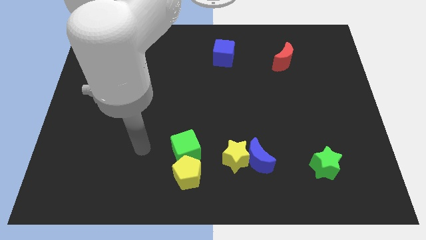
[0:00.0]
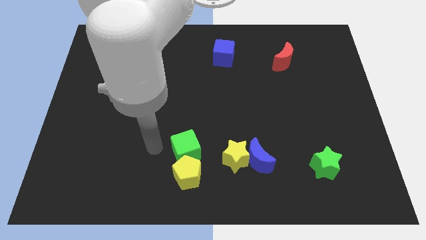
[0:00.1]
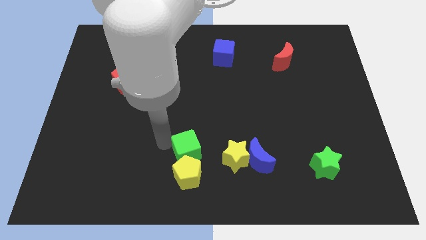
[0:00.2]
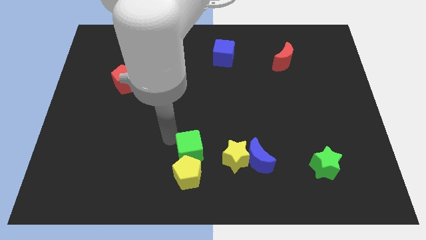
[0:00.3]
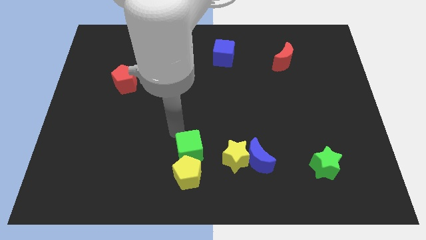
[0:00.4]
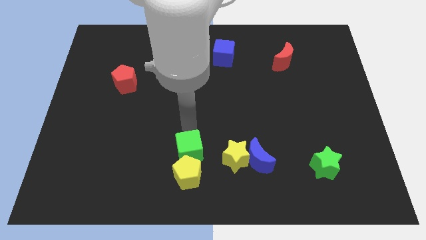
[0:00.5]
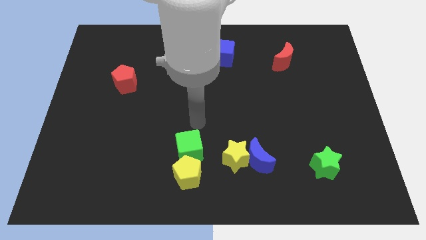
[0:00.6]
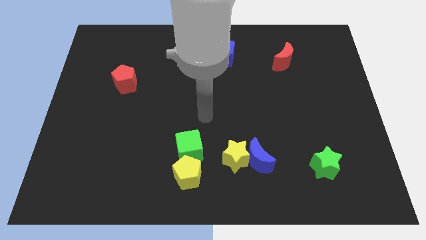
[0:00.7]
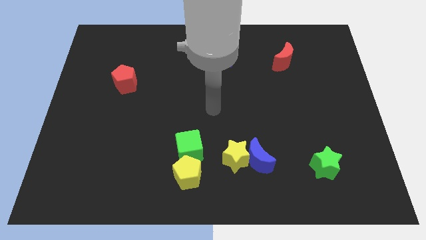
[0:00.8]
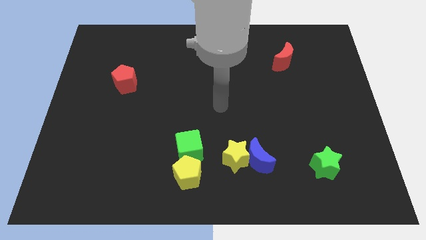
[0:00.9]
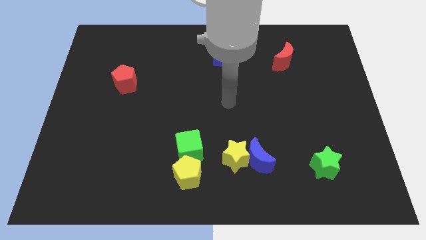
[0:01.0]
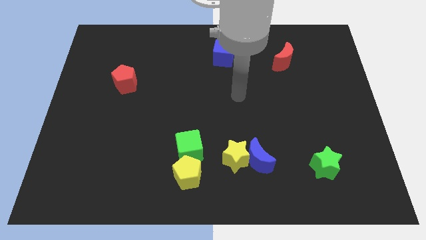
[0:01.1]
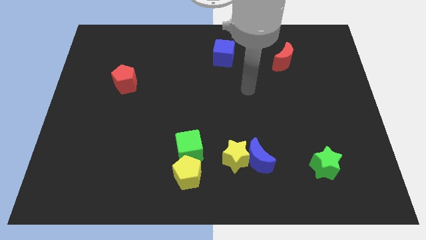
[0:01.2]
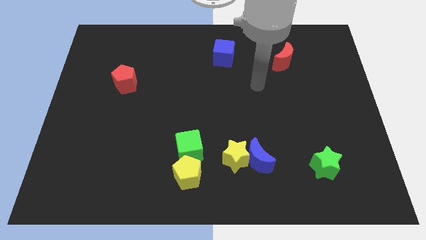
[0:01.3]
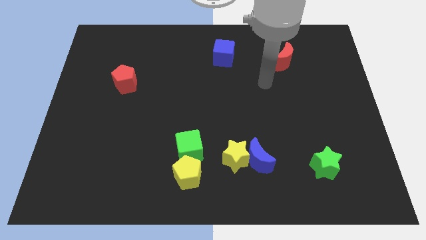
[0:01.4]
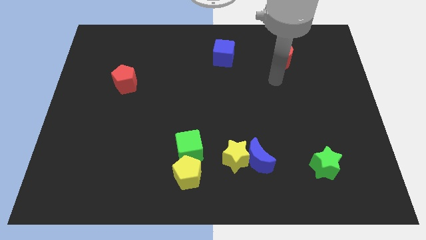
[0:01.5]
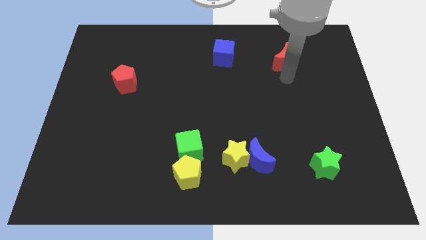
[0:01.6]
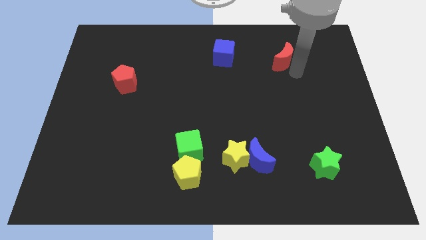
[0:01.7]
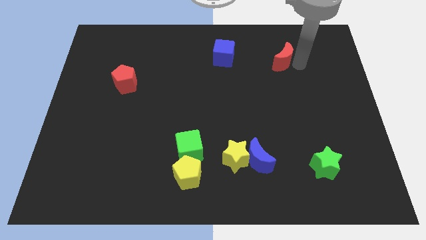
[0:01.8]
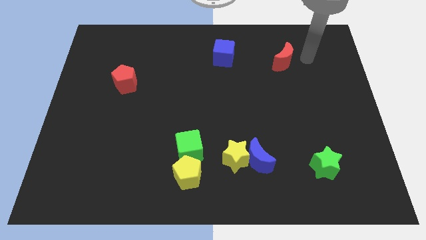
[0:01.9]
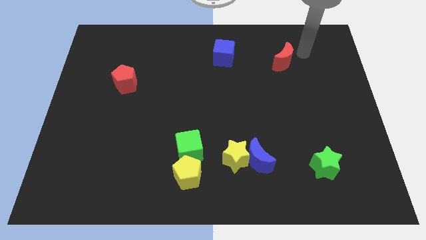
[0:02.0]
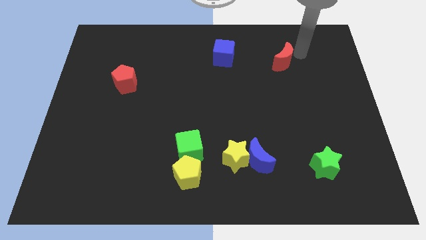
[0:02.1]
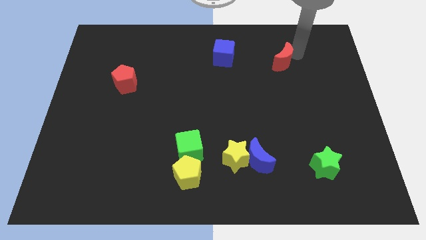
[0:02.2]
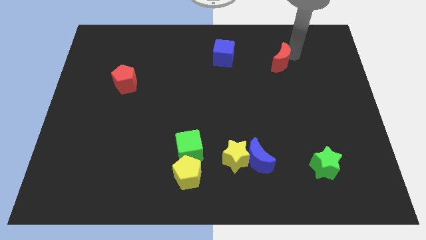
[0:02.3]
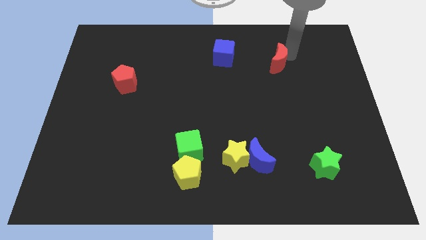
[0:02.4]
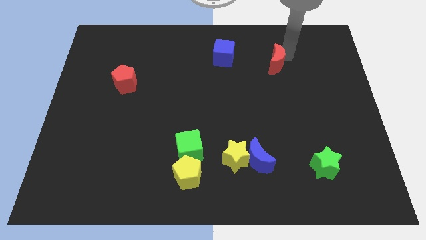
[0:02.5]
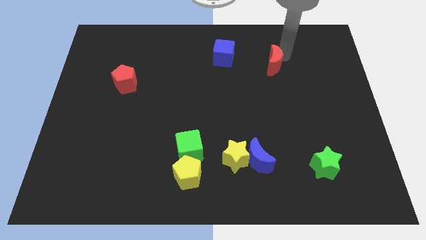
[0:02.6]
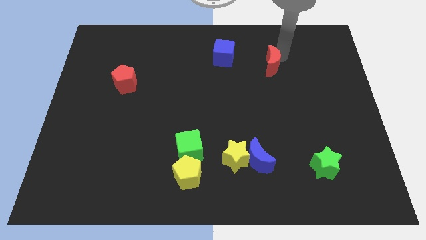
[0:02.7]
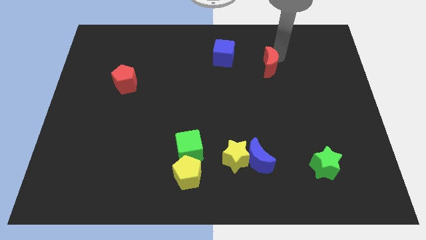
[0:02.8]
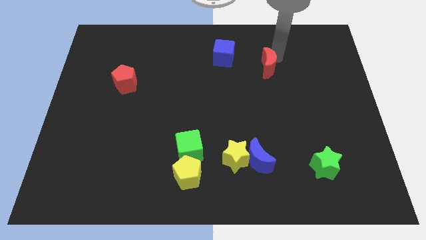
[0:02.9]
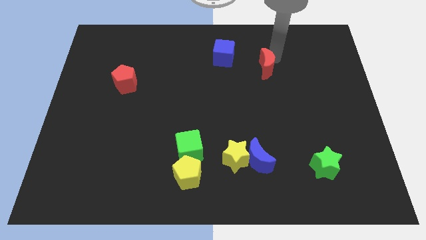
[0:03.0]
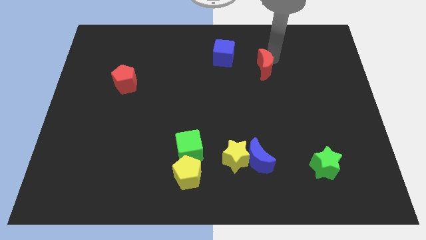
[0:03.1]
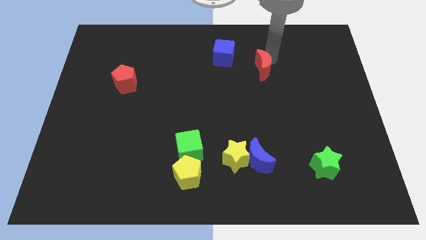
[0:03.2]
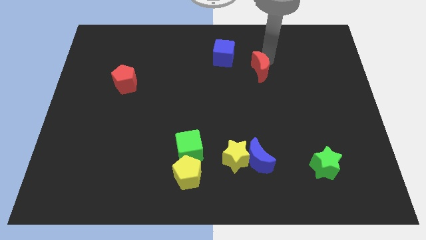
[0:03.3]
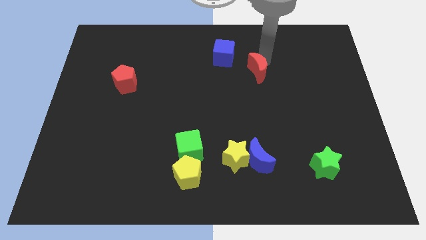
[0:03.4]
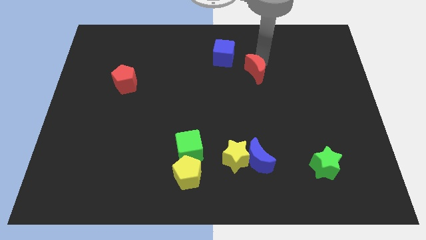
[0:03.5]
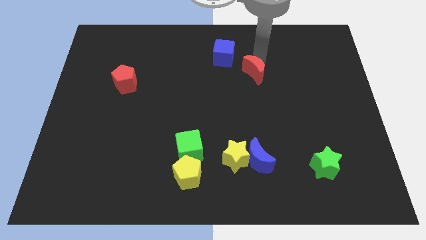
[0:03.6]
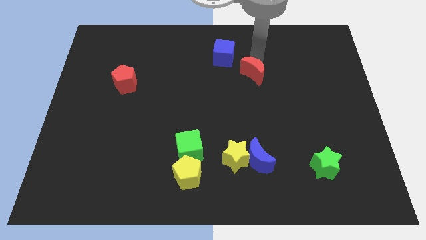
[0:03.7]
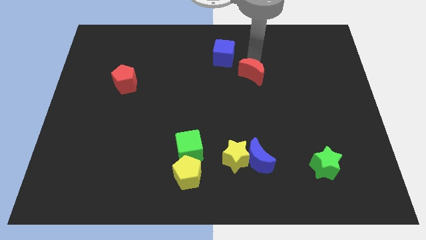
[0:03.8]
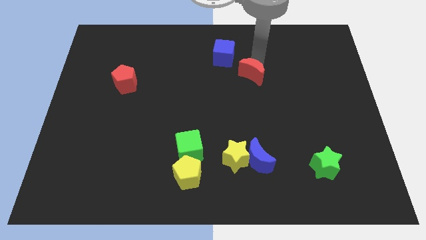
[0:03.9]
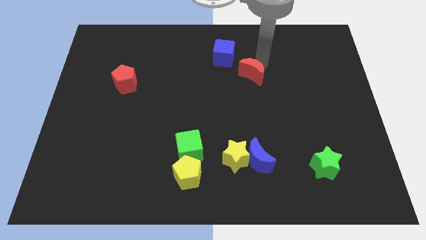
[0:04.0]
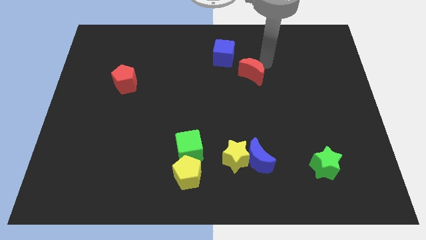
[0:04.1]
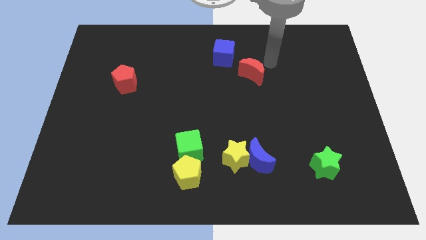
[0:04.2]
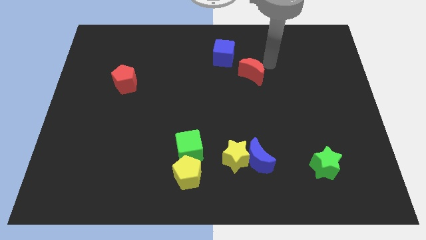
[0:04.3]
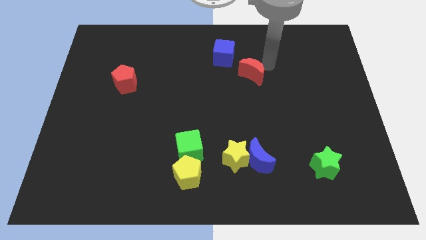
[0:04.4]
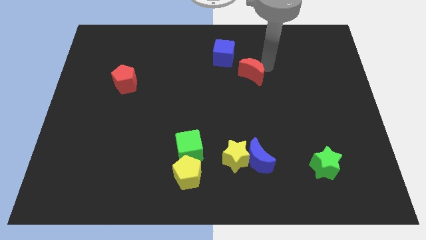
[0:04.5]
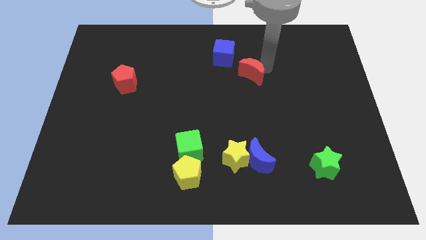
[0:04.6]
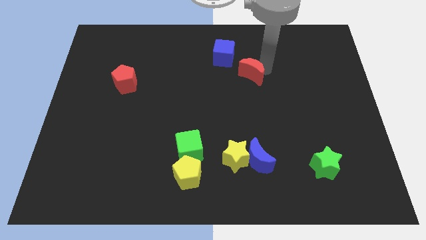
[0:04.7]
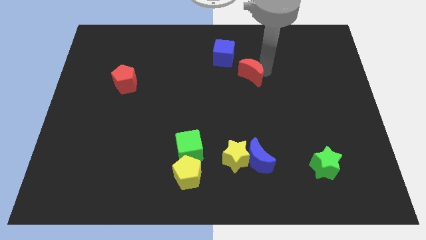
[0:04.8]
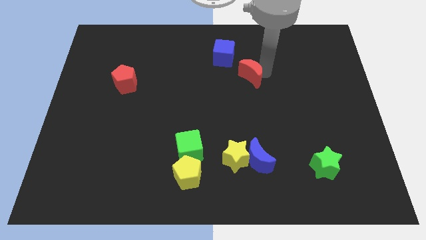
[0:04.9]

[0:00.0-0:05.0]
put the red moon to the middle of the board

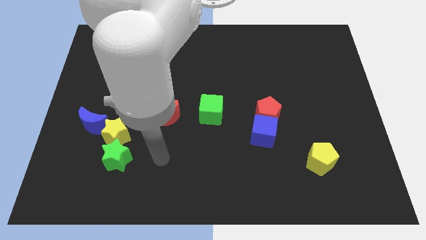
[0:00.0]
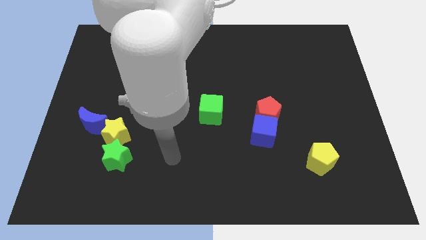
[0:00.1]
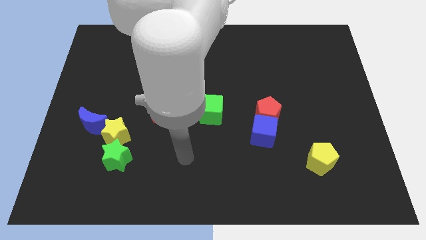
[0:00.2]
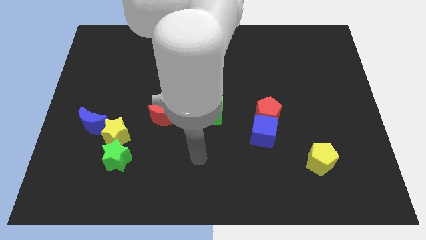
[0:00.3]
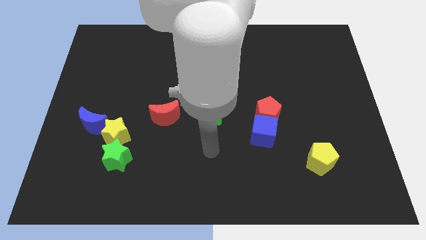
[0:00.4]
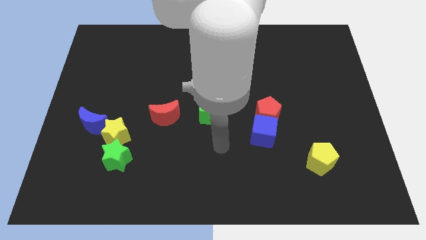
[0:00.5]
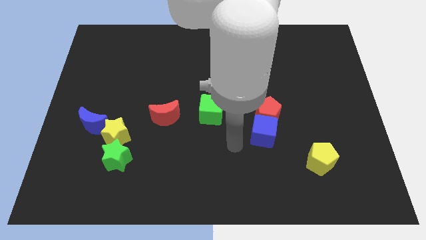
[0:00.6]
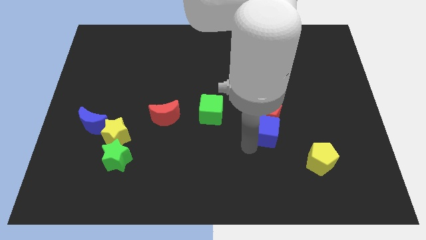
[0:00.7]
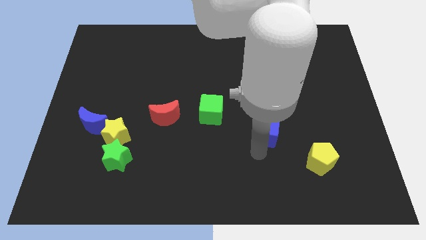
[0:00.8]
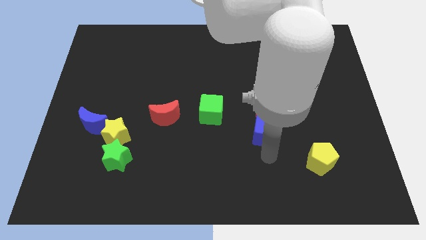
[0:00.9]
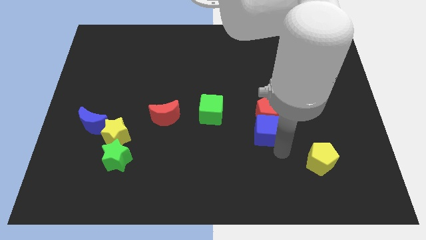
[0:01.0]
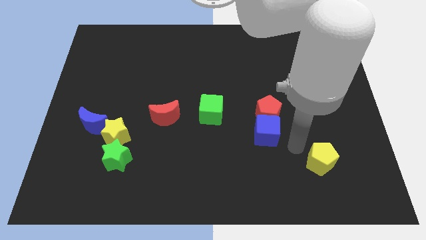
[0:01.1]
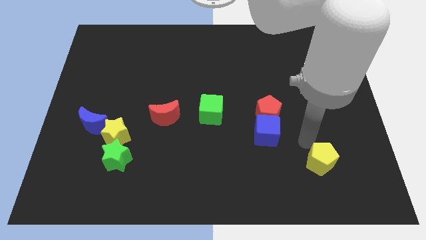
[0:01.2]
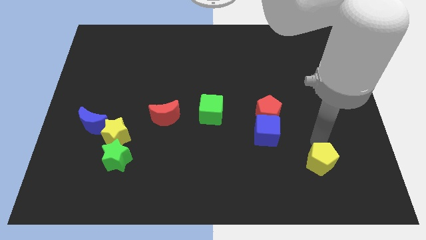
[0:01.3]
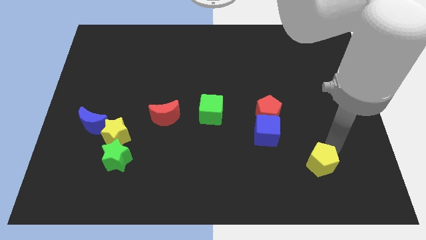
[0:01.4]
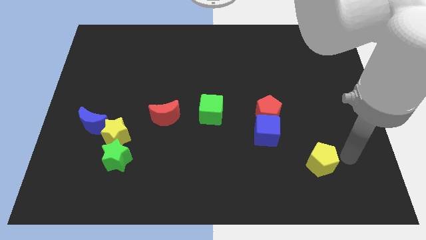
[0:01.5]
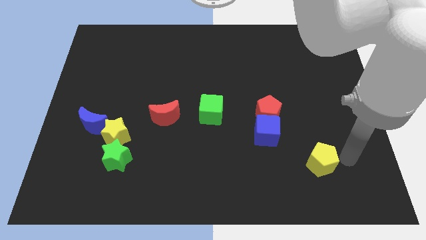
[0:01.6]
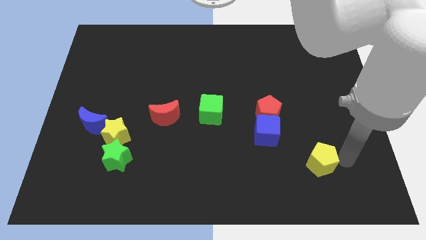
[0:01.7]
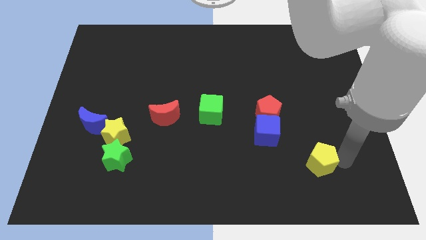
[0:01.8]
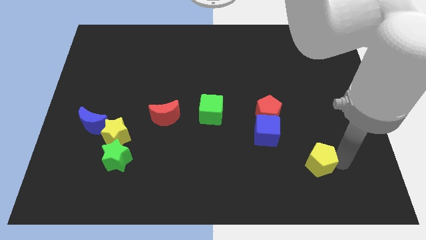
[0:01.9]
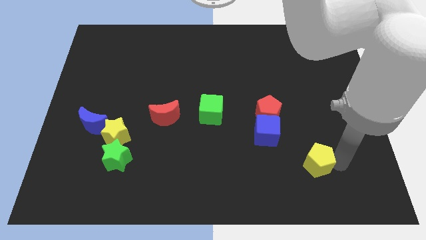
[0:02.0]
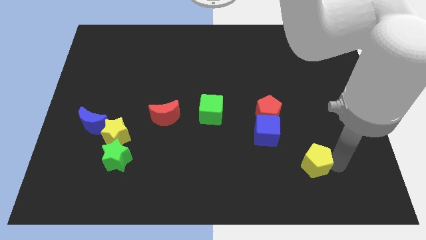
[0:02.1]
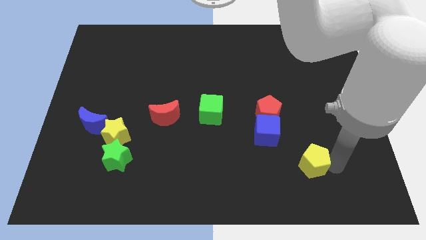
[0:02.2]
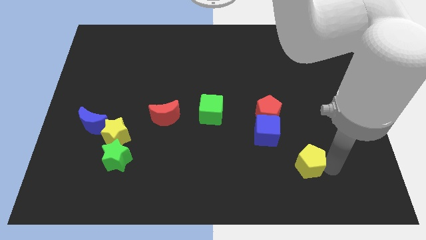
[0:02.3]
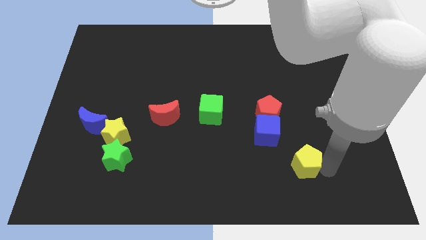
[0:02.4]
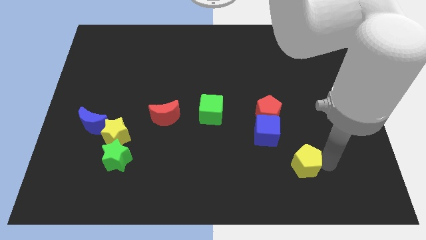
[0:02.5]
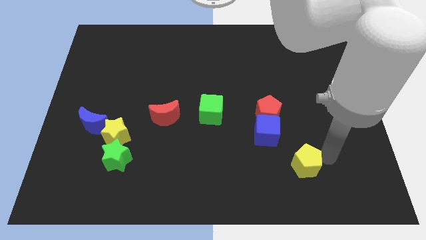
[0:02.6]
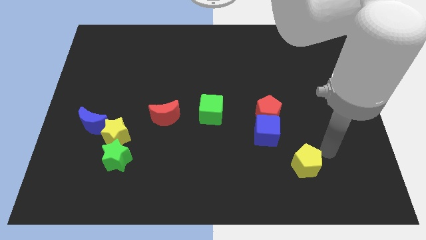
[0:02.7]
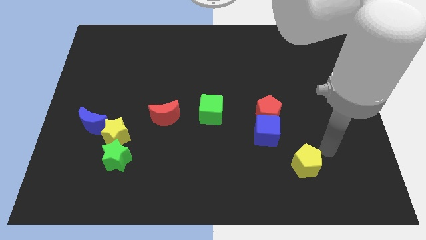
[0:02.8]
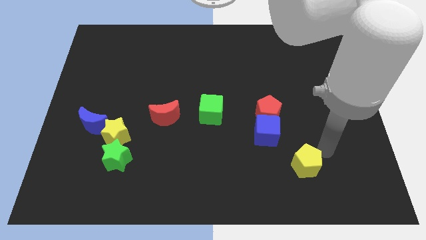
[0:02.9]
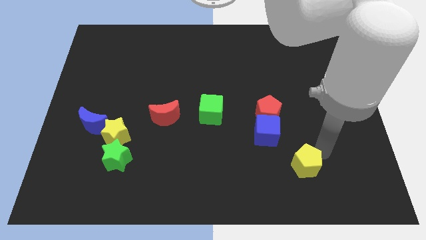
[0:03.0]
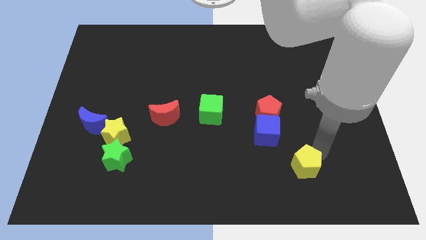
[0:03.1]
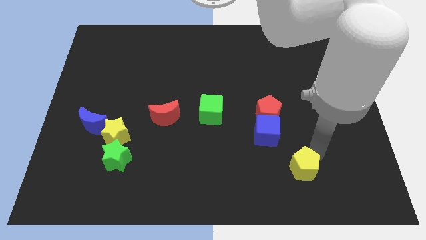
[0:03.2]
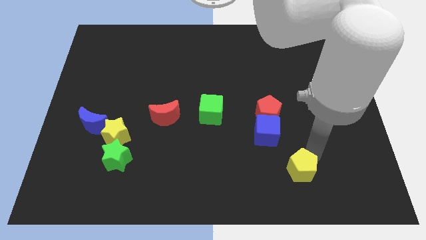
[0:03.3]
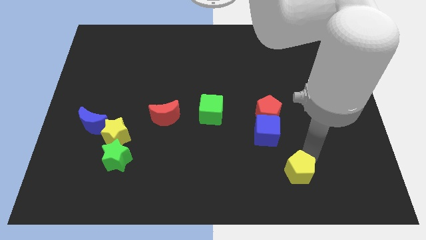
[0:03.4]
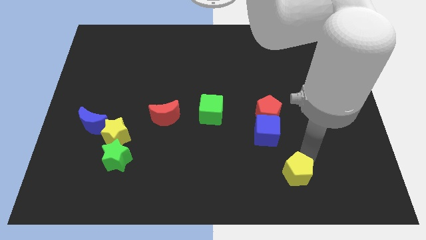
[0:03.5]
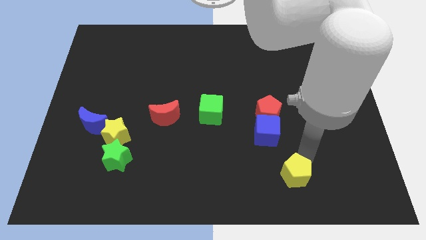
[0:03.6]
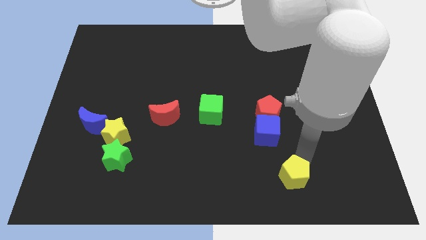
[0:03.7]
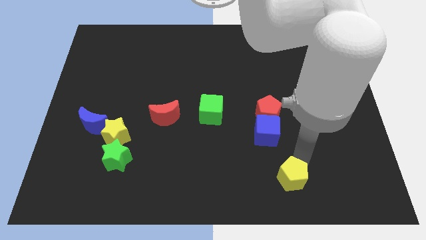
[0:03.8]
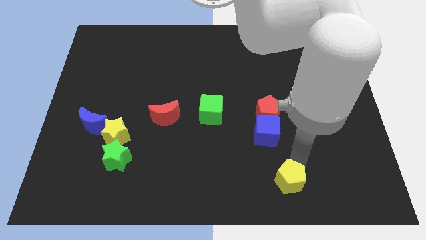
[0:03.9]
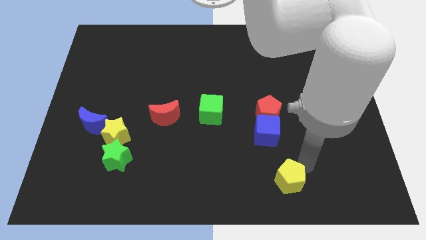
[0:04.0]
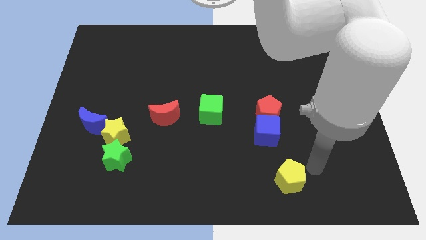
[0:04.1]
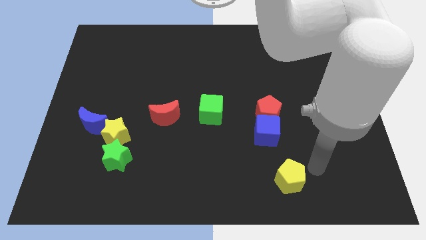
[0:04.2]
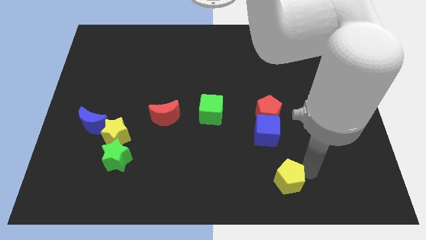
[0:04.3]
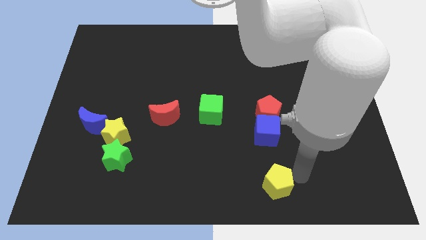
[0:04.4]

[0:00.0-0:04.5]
push the yellow pentagon to the bottom
